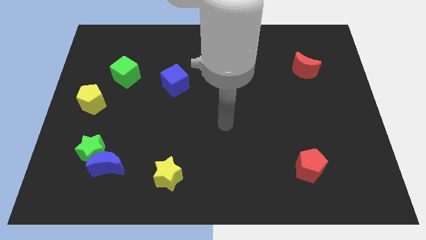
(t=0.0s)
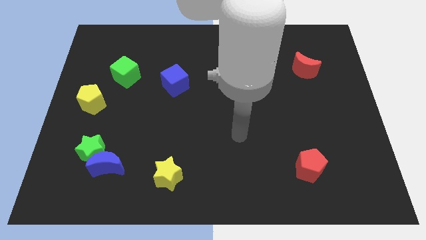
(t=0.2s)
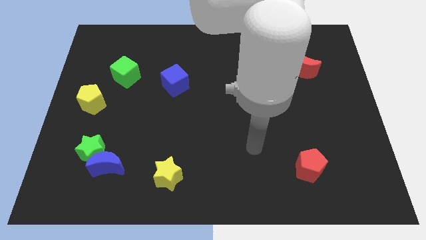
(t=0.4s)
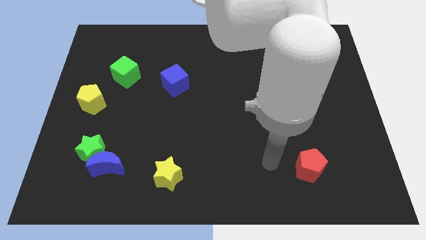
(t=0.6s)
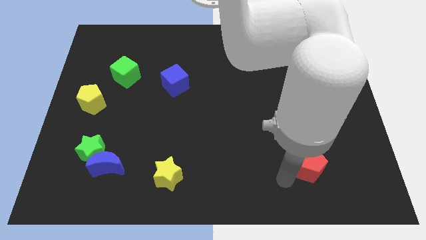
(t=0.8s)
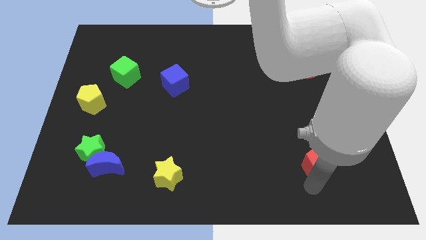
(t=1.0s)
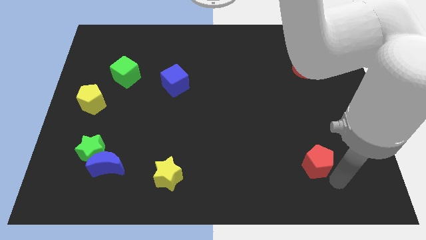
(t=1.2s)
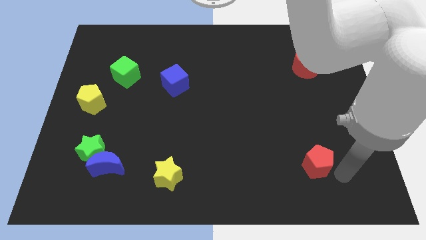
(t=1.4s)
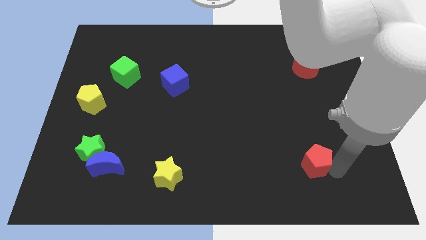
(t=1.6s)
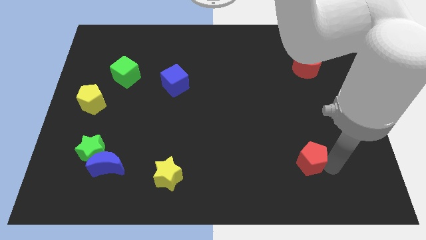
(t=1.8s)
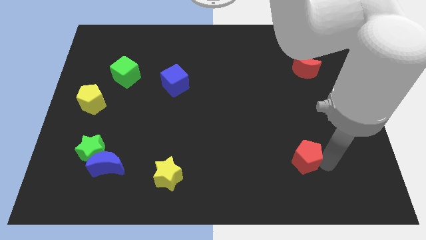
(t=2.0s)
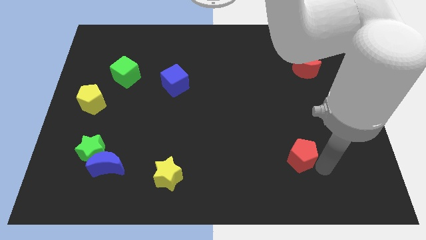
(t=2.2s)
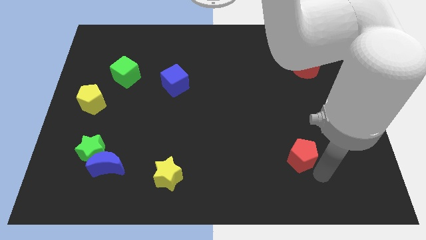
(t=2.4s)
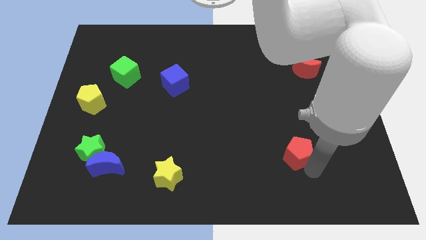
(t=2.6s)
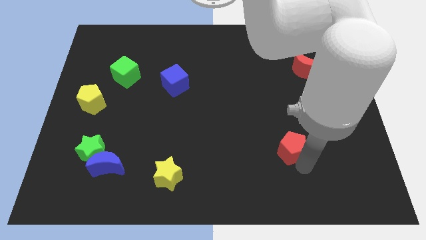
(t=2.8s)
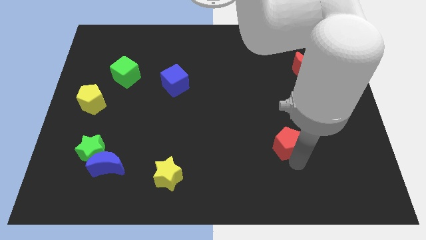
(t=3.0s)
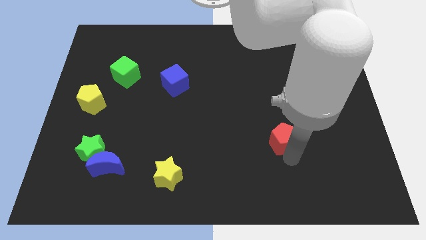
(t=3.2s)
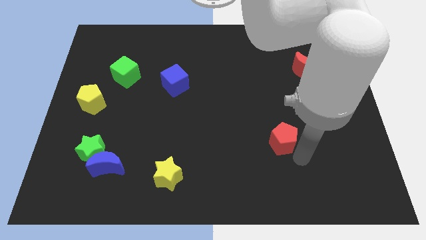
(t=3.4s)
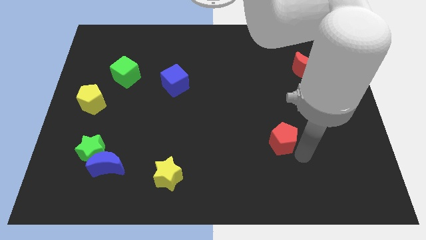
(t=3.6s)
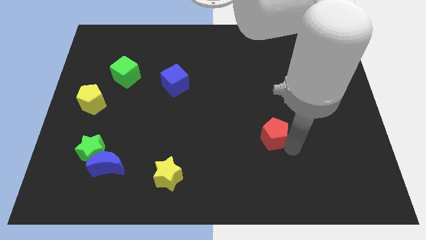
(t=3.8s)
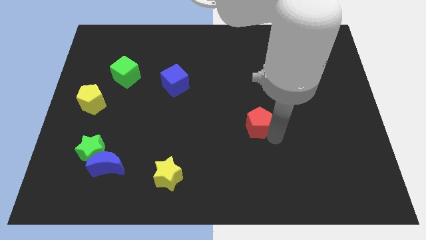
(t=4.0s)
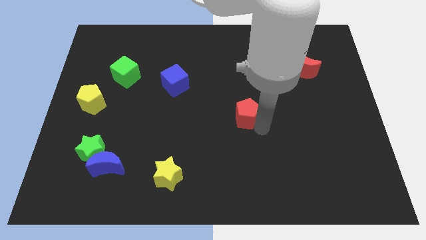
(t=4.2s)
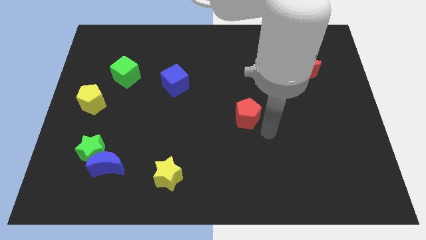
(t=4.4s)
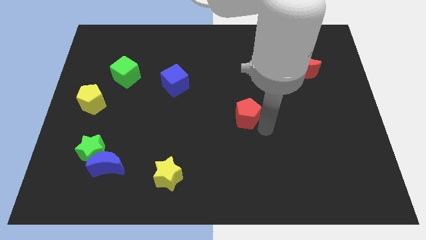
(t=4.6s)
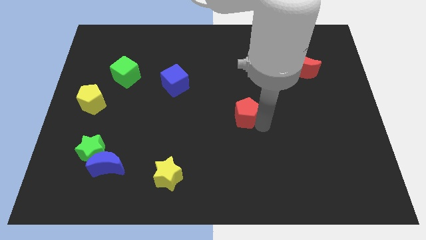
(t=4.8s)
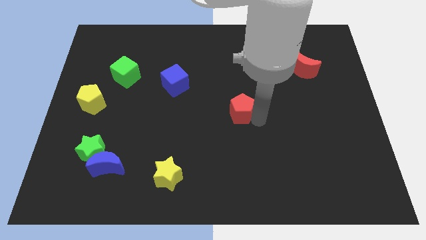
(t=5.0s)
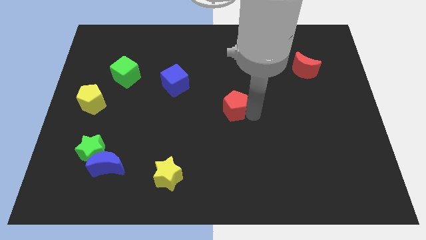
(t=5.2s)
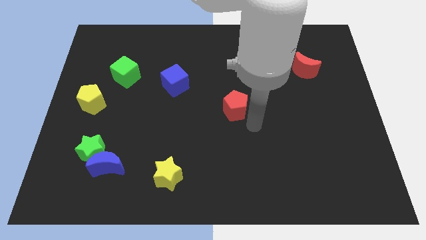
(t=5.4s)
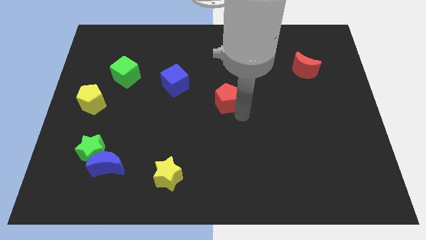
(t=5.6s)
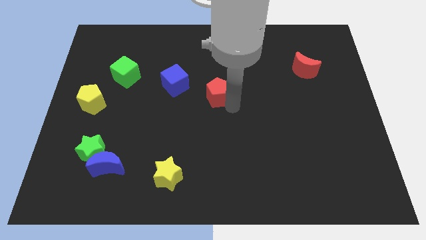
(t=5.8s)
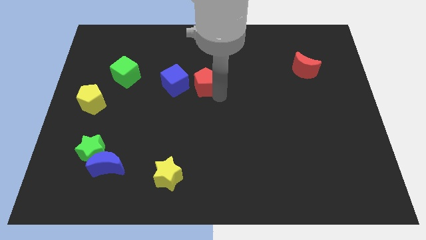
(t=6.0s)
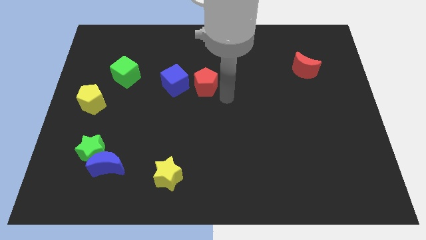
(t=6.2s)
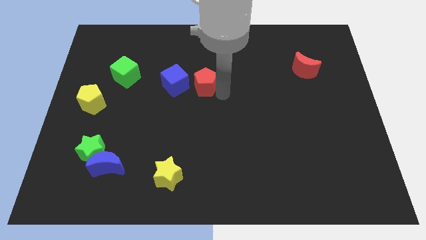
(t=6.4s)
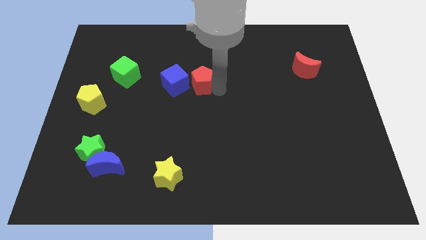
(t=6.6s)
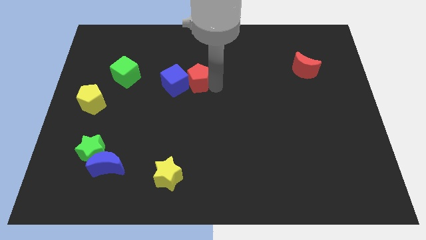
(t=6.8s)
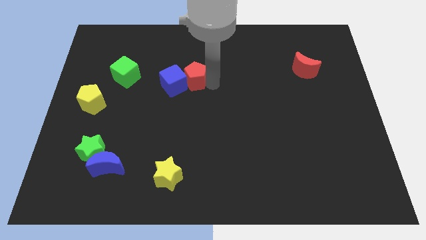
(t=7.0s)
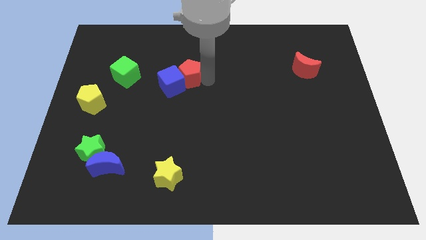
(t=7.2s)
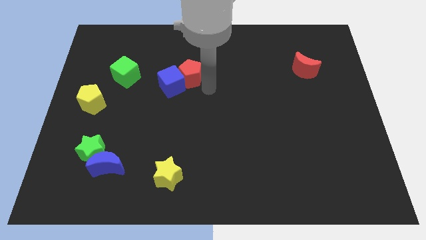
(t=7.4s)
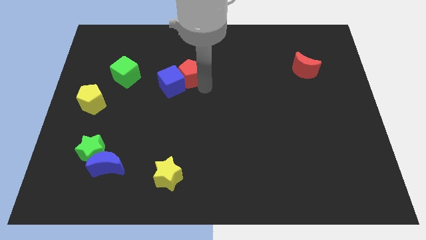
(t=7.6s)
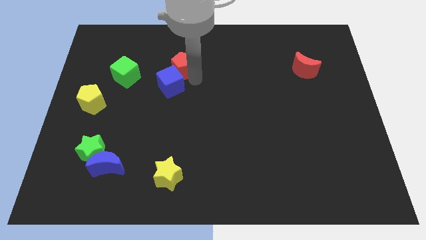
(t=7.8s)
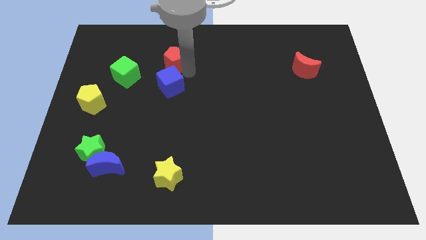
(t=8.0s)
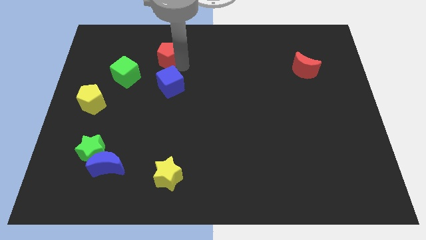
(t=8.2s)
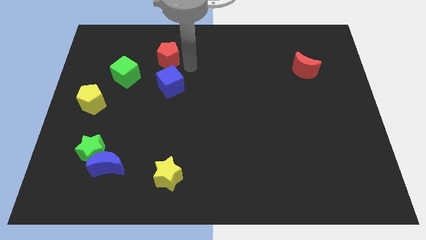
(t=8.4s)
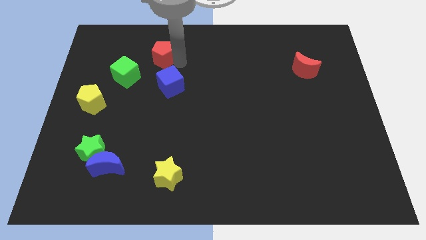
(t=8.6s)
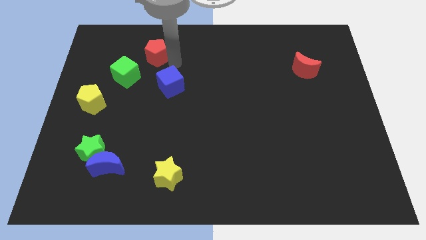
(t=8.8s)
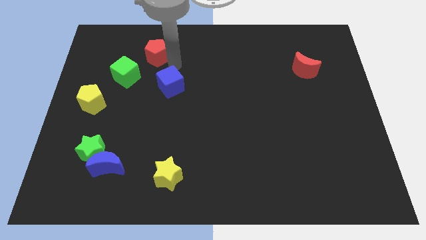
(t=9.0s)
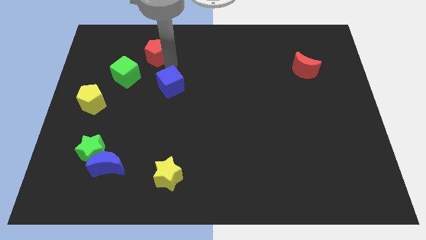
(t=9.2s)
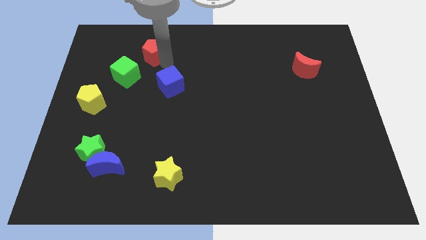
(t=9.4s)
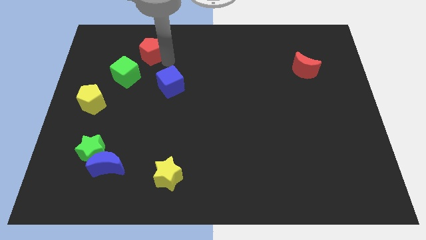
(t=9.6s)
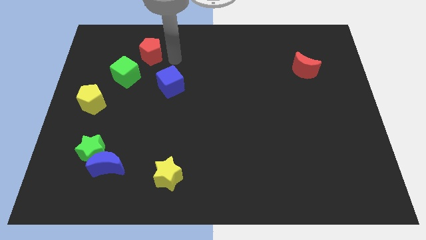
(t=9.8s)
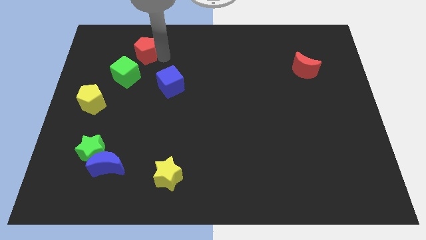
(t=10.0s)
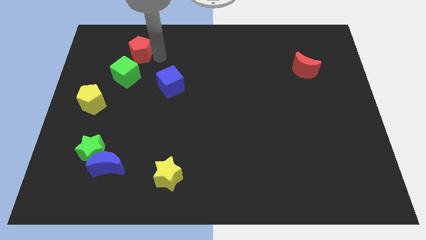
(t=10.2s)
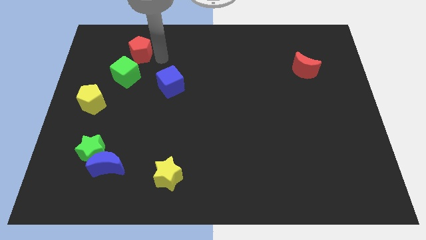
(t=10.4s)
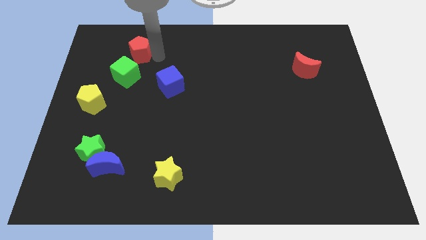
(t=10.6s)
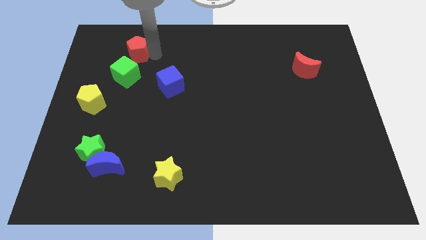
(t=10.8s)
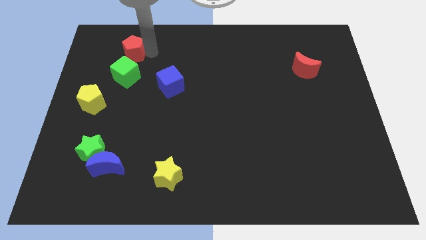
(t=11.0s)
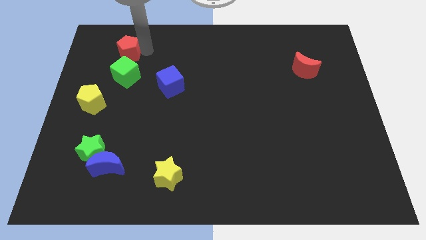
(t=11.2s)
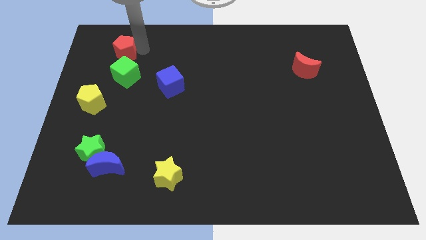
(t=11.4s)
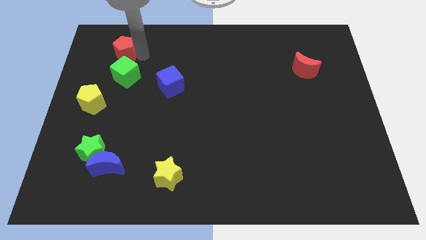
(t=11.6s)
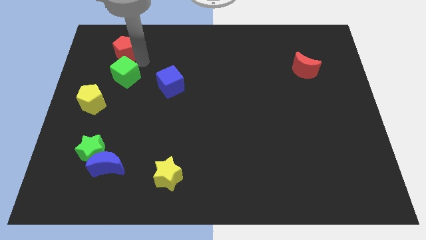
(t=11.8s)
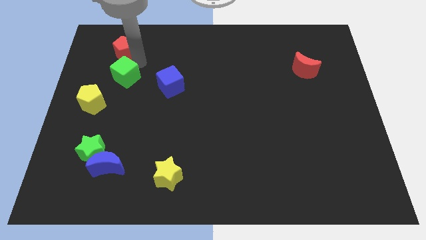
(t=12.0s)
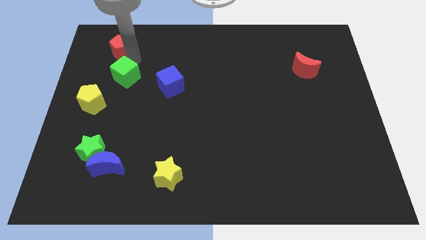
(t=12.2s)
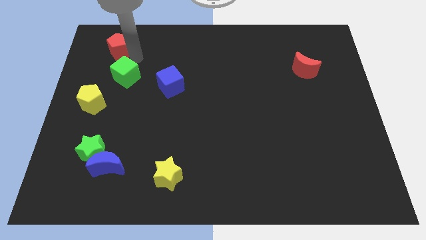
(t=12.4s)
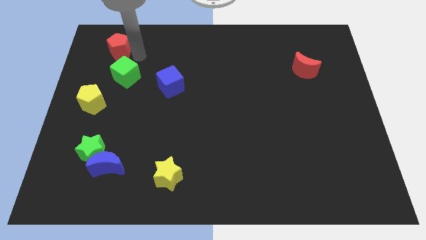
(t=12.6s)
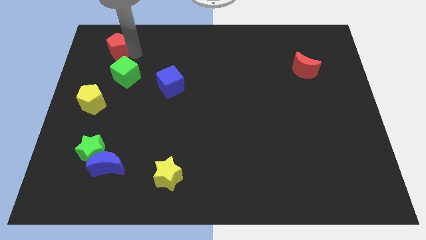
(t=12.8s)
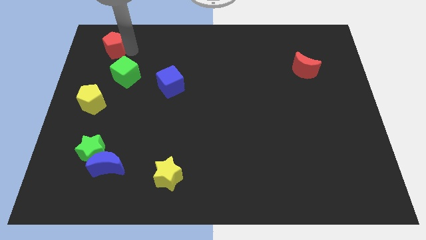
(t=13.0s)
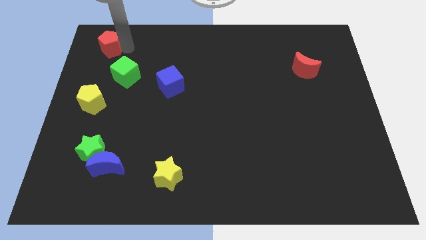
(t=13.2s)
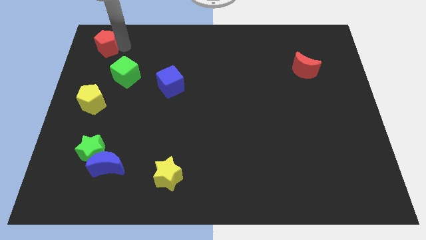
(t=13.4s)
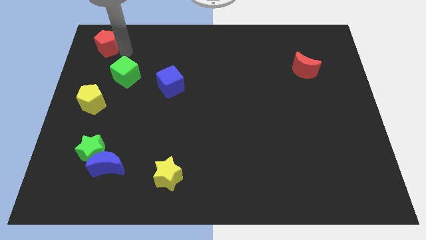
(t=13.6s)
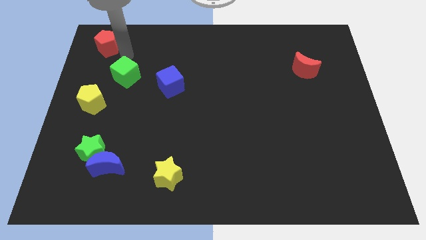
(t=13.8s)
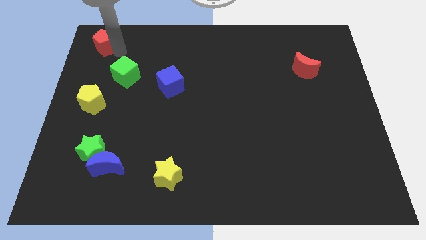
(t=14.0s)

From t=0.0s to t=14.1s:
slide the red pentagon to the top left

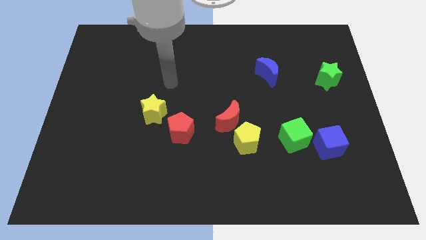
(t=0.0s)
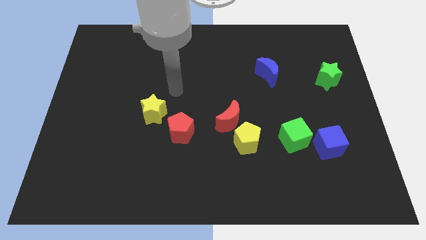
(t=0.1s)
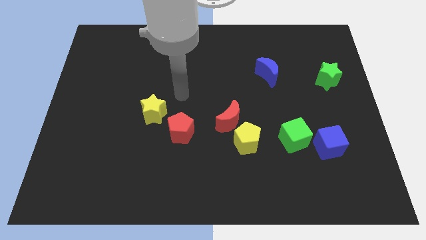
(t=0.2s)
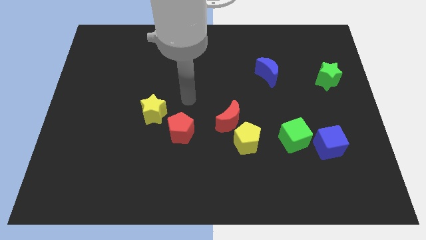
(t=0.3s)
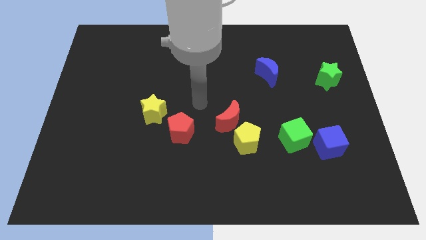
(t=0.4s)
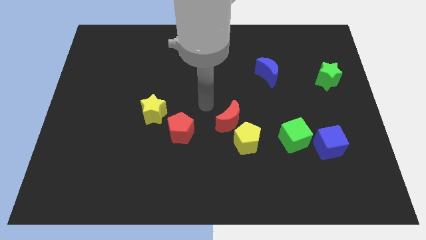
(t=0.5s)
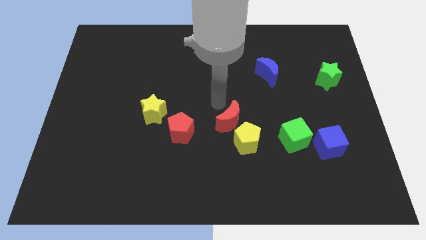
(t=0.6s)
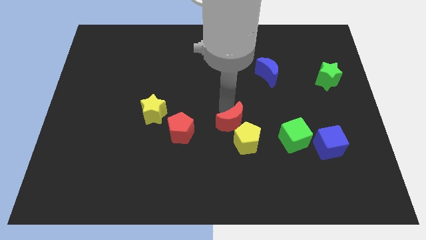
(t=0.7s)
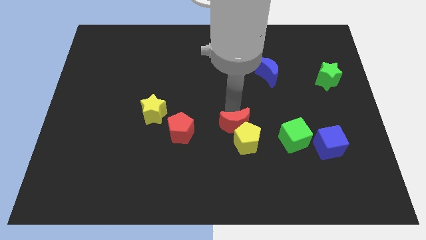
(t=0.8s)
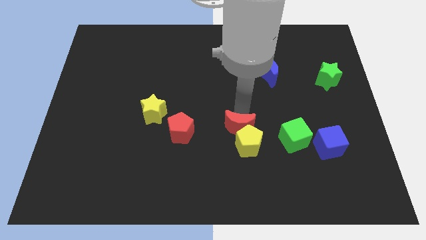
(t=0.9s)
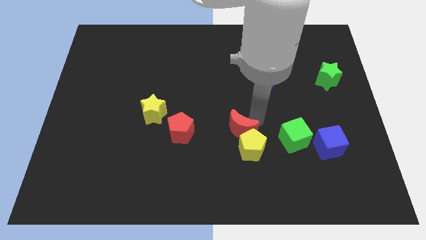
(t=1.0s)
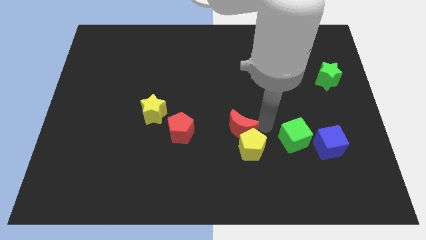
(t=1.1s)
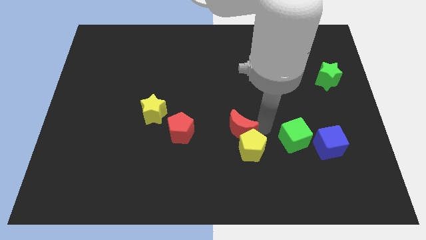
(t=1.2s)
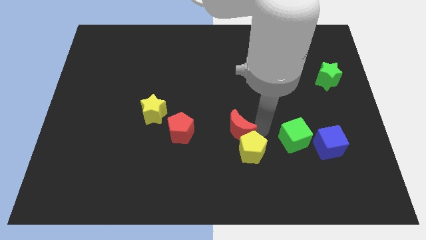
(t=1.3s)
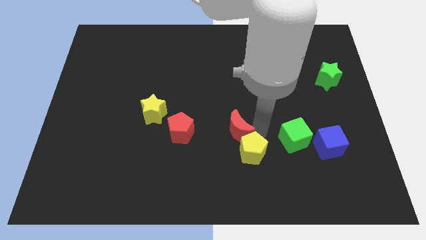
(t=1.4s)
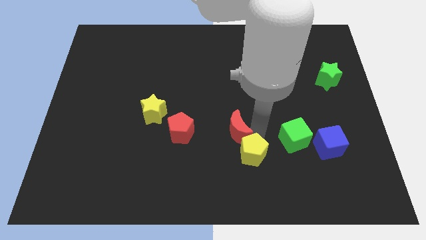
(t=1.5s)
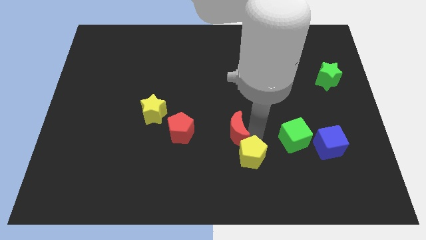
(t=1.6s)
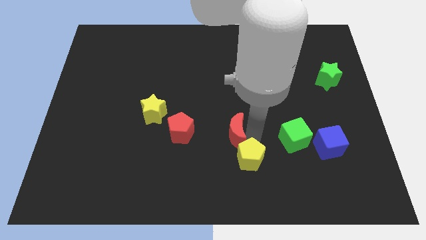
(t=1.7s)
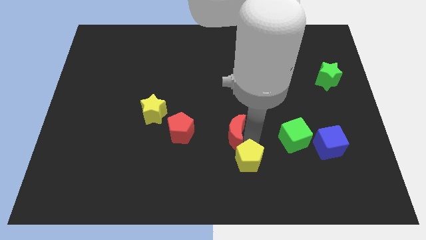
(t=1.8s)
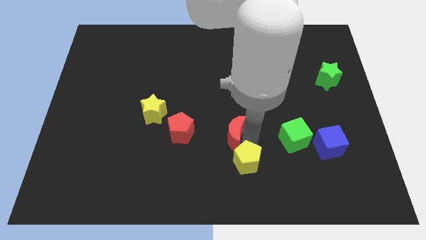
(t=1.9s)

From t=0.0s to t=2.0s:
move the yellow pentagon to the bottom side
